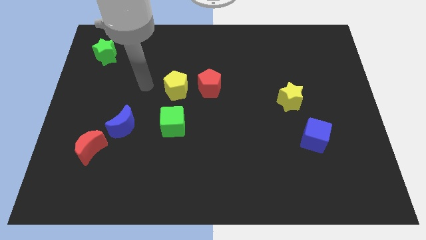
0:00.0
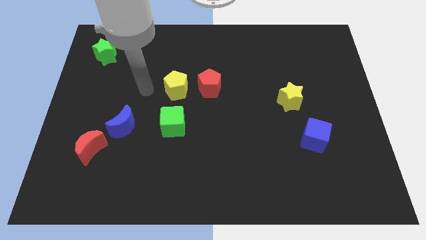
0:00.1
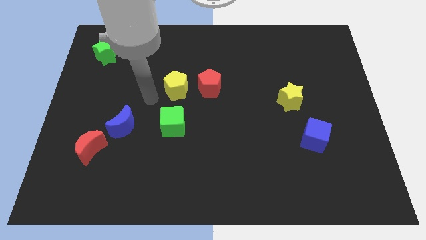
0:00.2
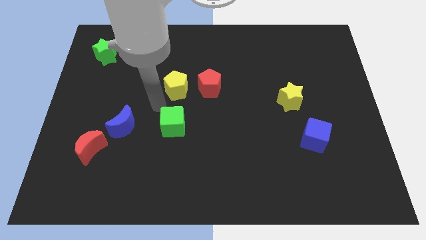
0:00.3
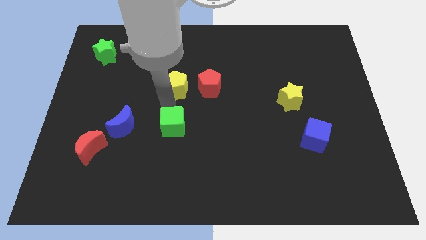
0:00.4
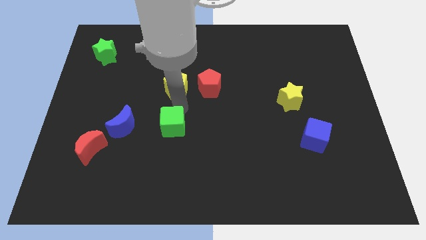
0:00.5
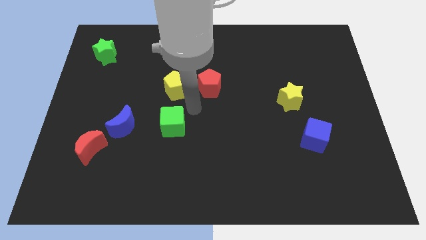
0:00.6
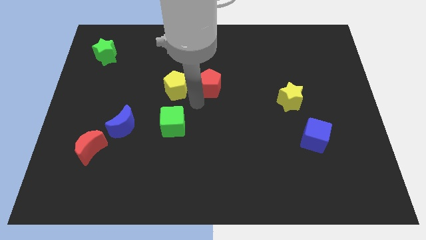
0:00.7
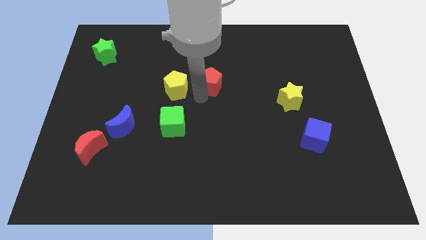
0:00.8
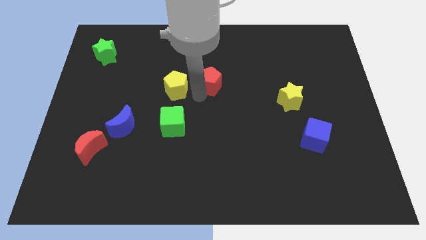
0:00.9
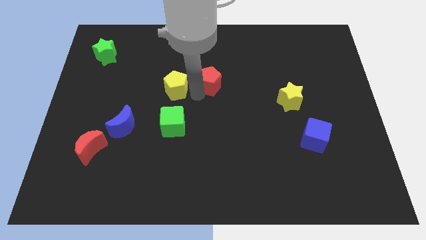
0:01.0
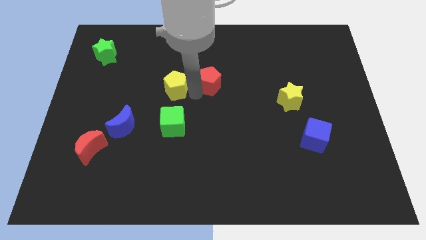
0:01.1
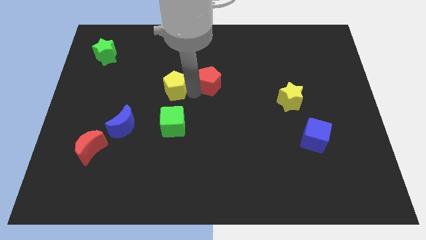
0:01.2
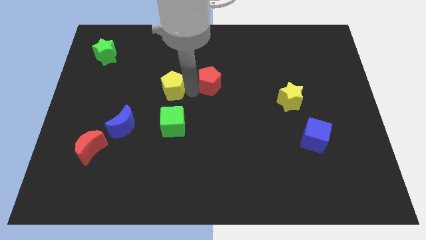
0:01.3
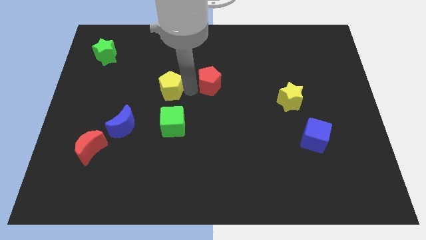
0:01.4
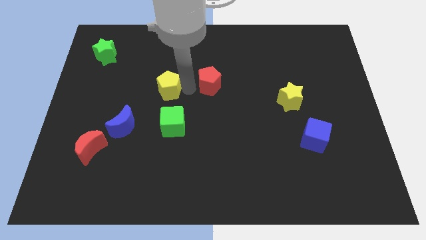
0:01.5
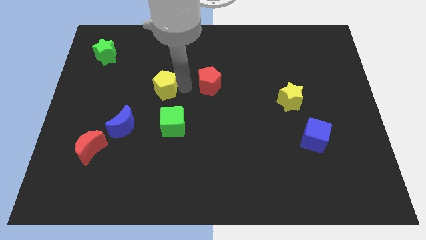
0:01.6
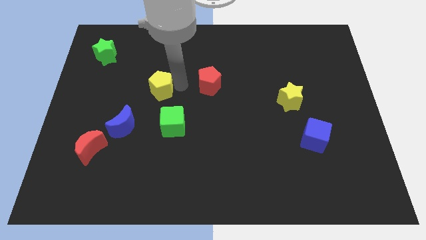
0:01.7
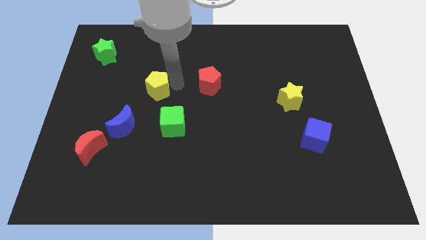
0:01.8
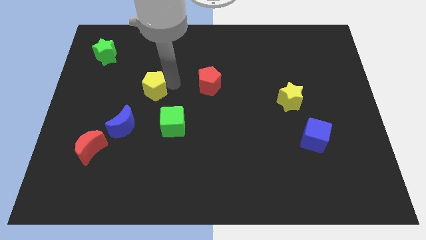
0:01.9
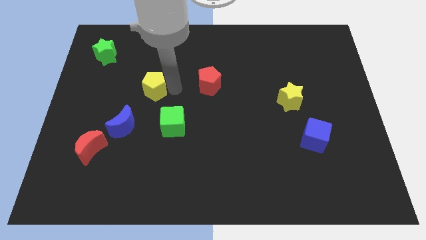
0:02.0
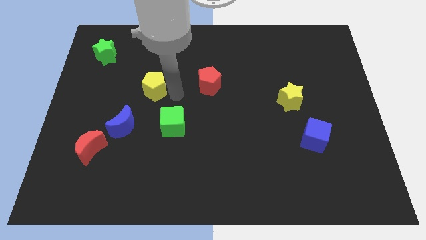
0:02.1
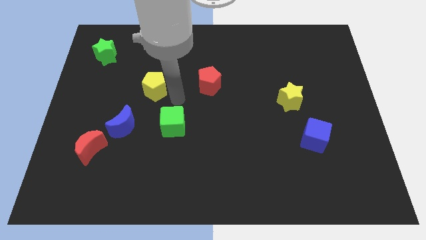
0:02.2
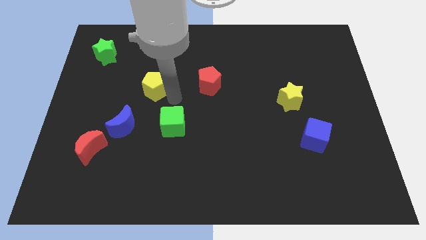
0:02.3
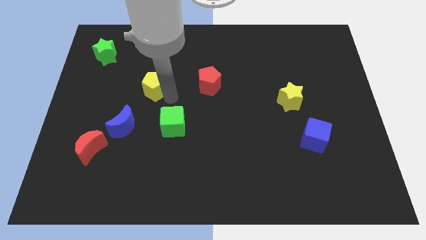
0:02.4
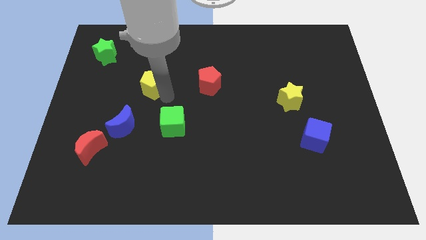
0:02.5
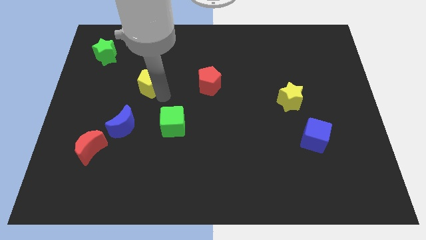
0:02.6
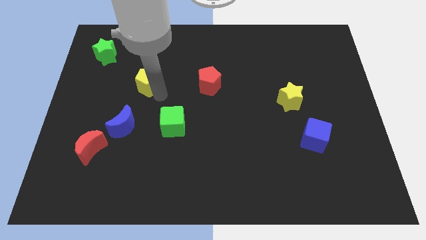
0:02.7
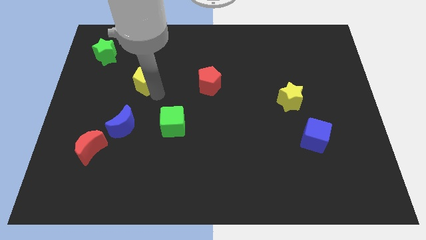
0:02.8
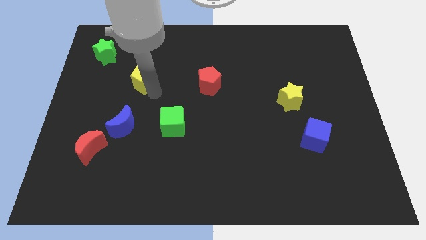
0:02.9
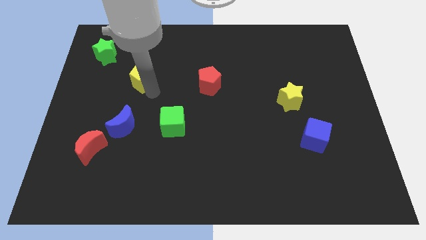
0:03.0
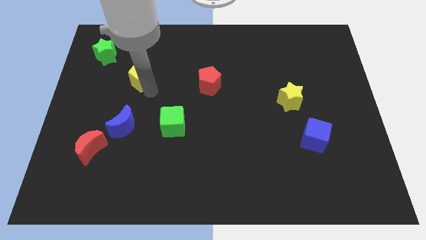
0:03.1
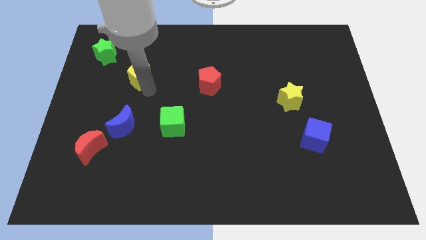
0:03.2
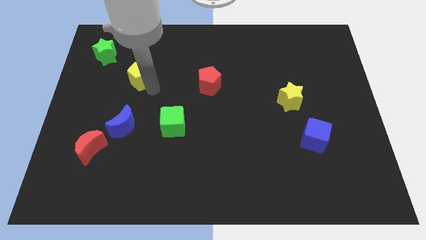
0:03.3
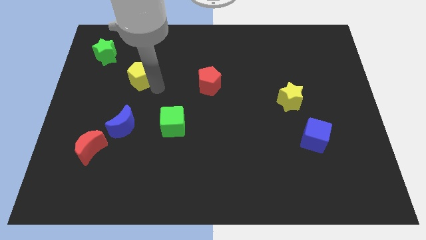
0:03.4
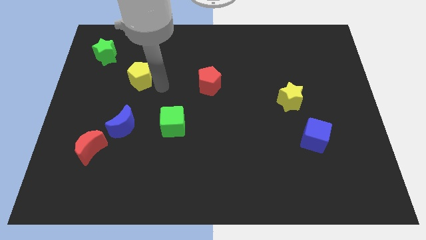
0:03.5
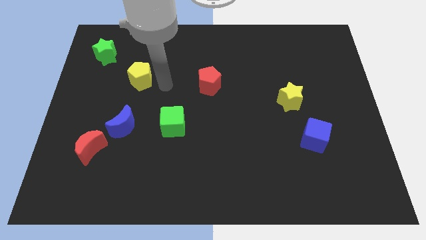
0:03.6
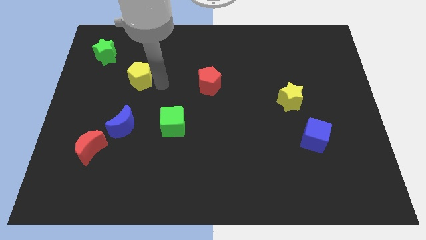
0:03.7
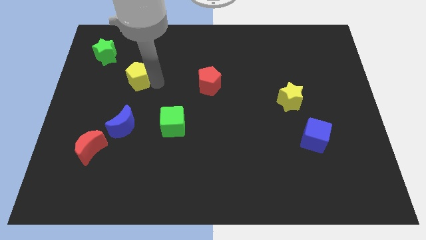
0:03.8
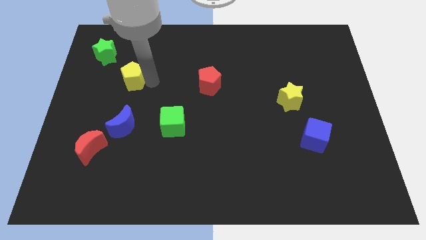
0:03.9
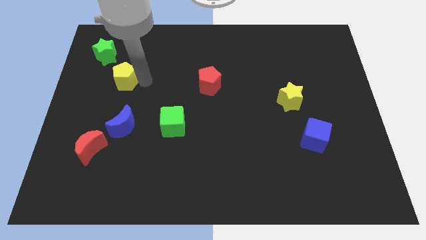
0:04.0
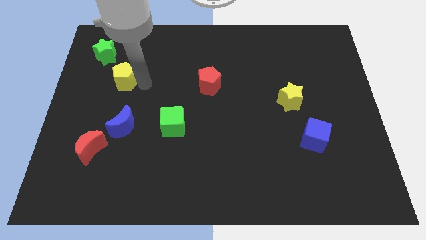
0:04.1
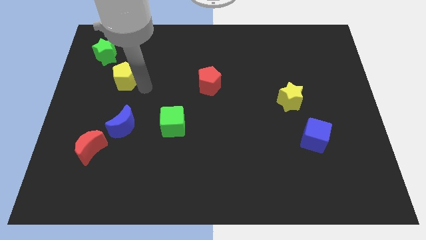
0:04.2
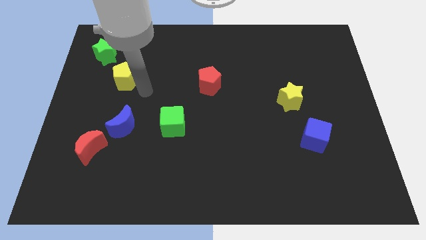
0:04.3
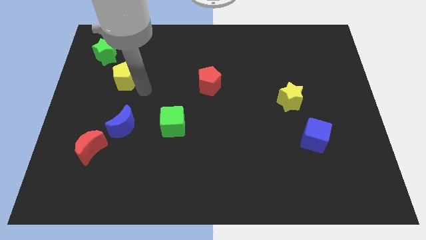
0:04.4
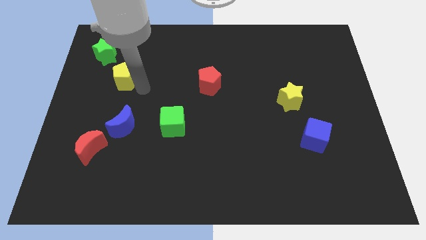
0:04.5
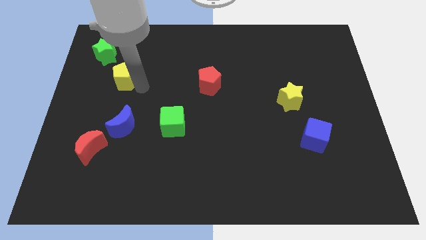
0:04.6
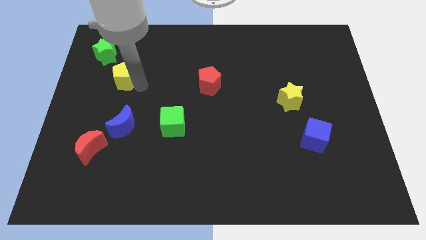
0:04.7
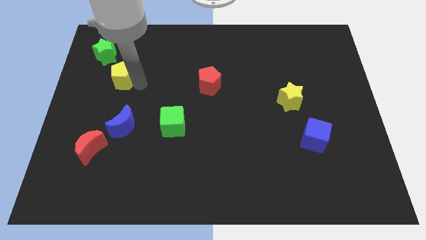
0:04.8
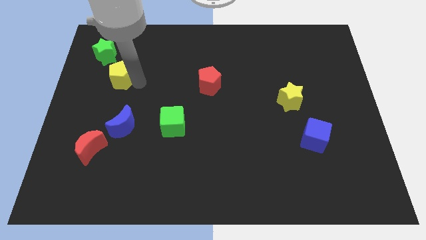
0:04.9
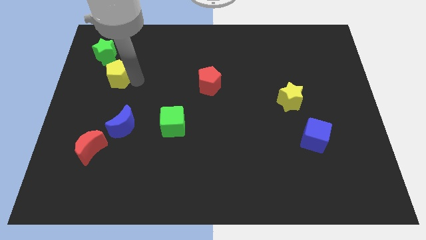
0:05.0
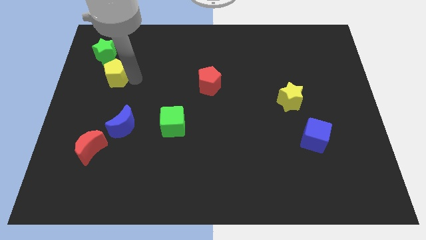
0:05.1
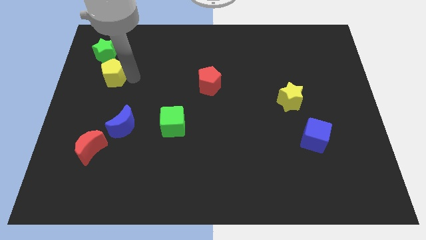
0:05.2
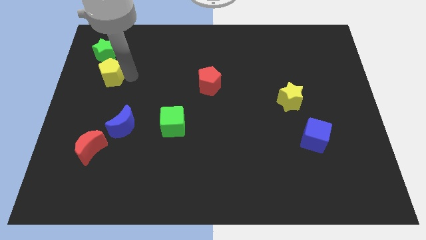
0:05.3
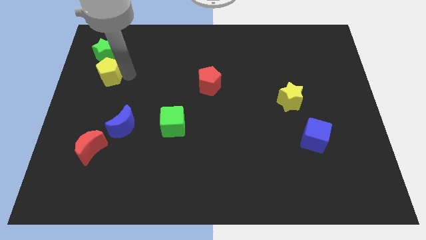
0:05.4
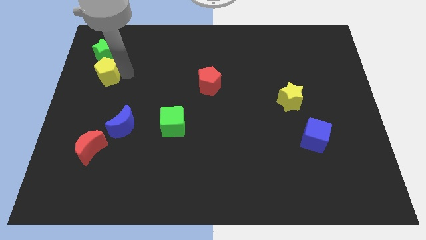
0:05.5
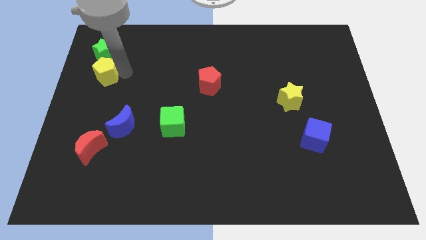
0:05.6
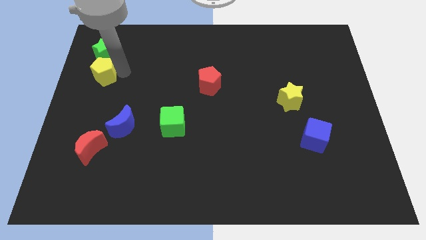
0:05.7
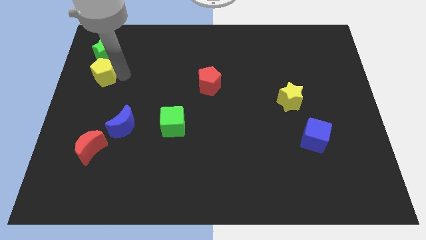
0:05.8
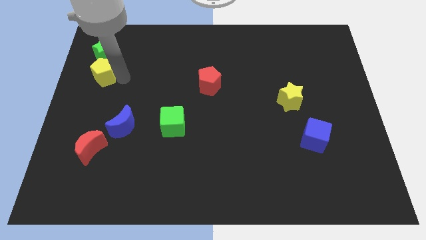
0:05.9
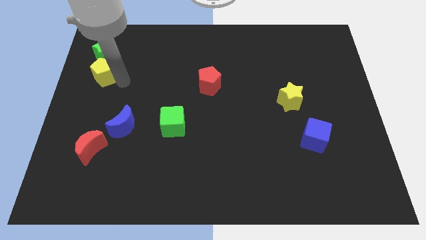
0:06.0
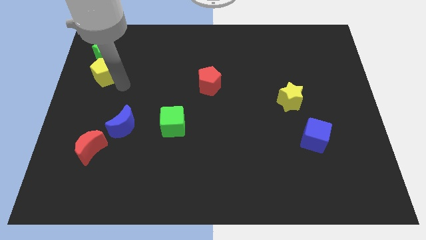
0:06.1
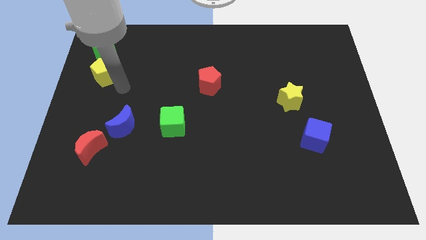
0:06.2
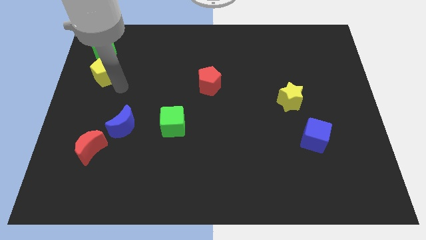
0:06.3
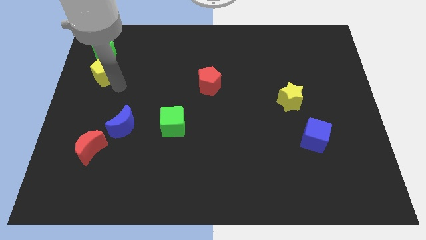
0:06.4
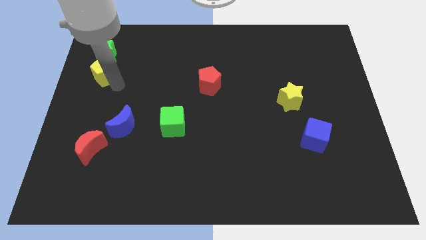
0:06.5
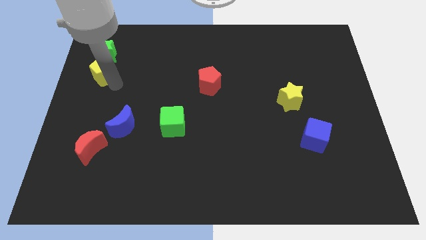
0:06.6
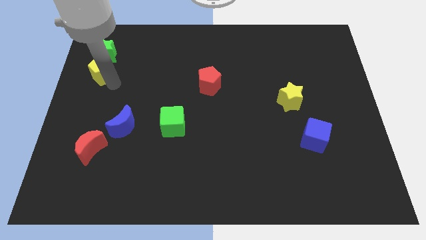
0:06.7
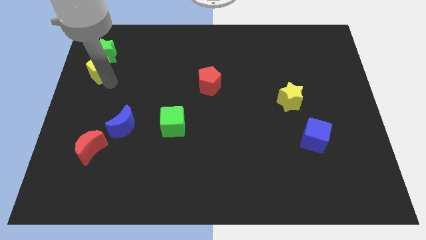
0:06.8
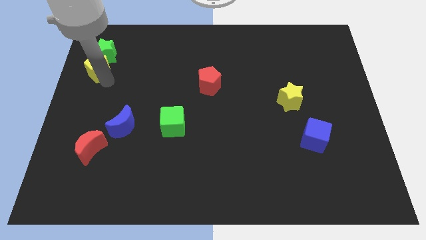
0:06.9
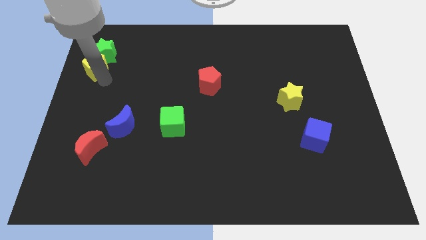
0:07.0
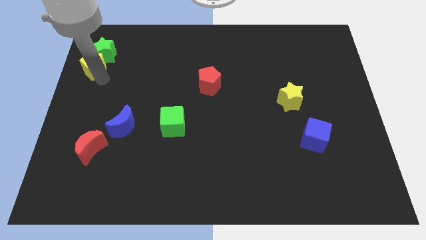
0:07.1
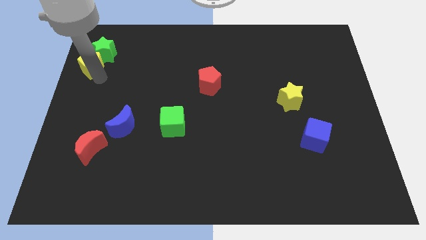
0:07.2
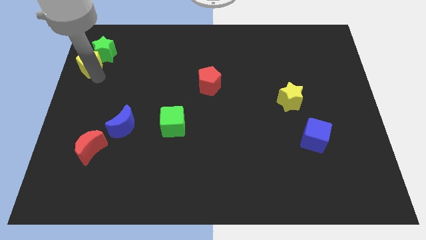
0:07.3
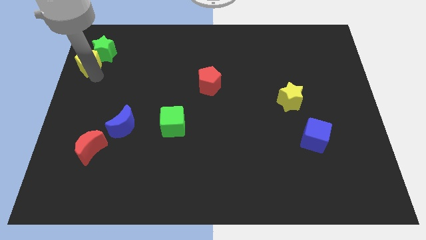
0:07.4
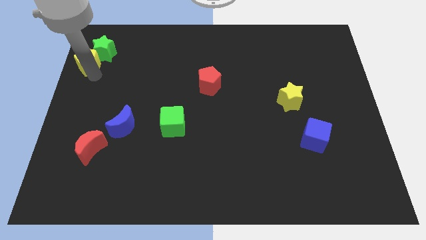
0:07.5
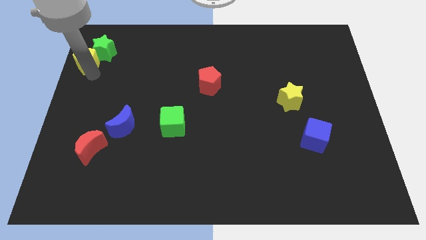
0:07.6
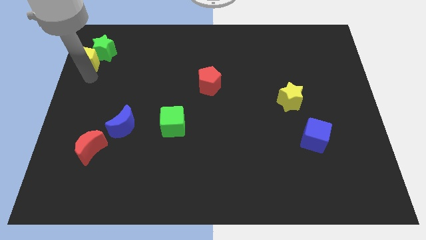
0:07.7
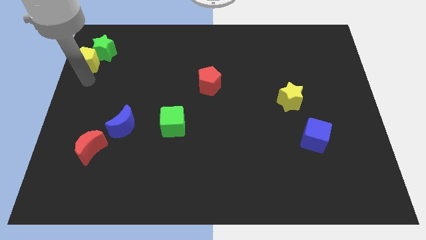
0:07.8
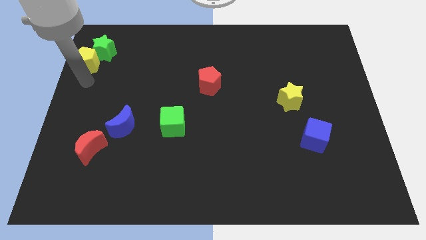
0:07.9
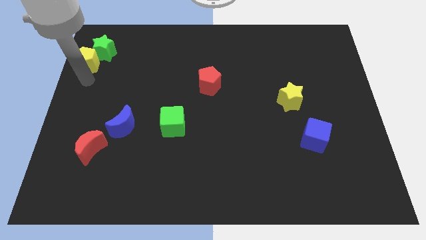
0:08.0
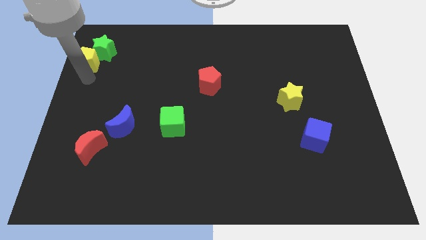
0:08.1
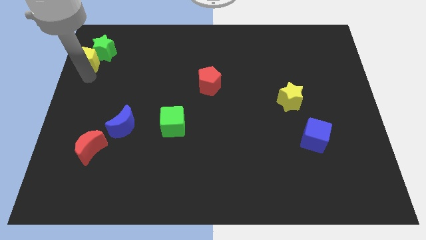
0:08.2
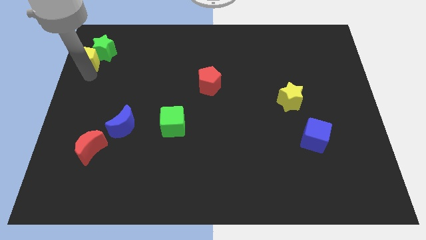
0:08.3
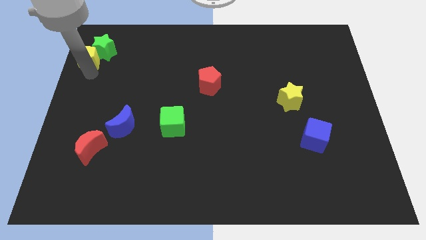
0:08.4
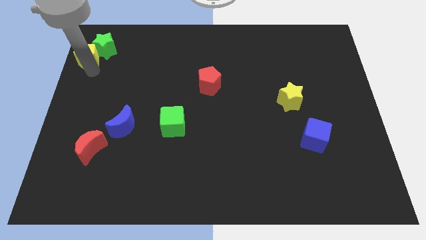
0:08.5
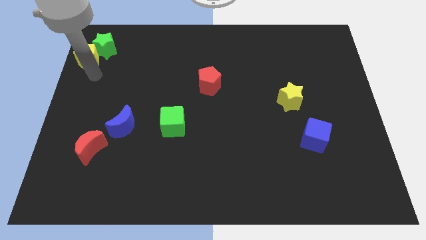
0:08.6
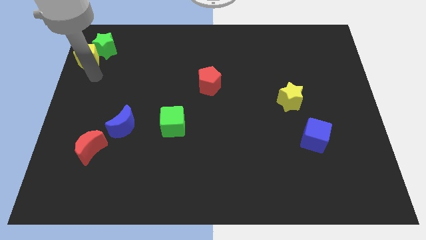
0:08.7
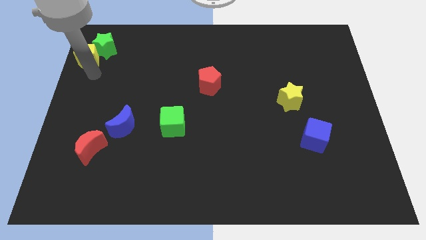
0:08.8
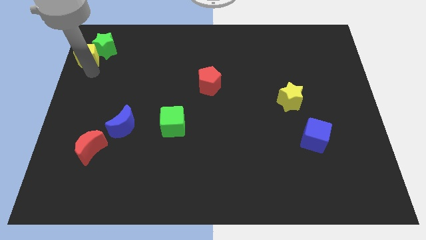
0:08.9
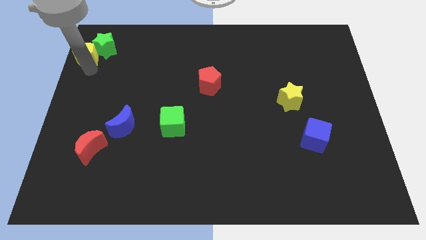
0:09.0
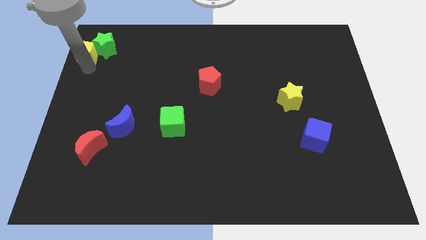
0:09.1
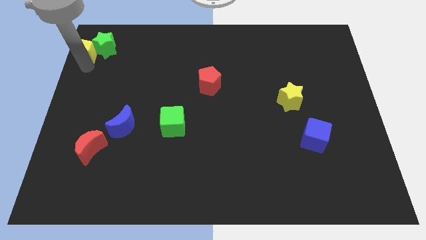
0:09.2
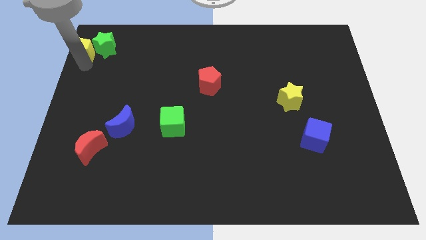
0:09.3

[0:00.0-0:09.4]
move the yellow pentagon to the top left corner
